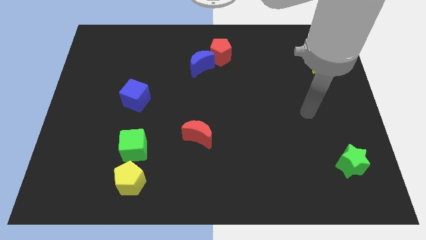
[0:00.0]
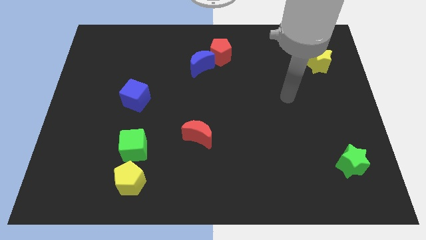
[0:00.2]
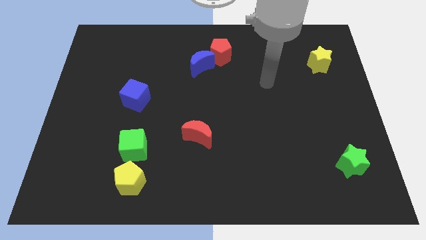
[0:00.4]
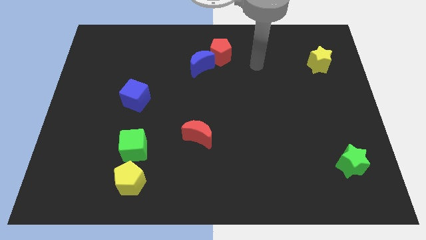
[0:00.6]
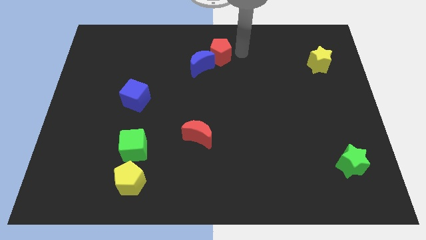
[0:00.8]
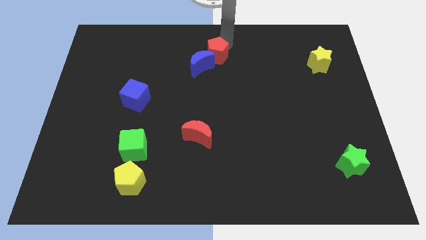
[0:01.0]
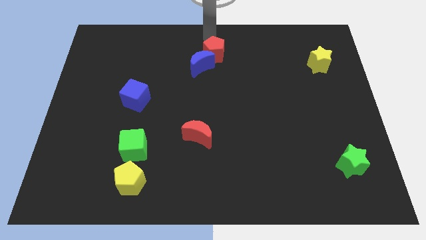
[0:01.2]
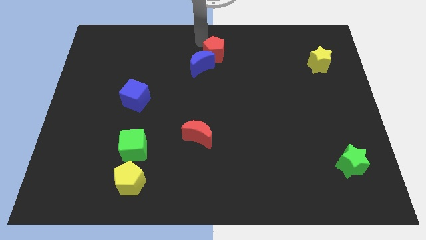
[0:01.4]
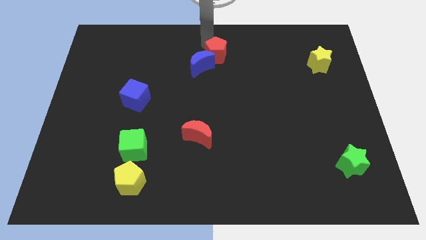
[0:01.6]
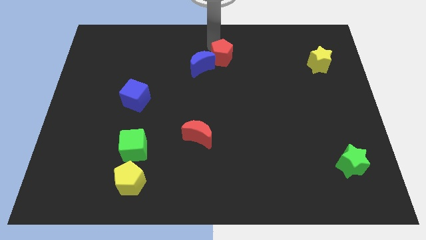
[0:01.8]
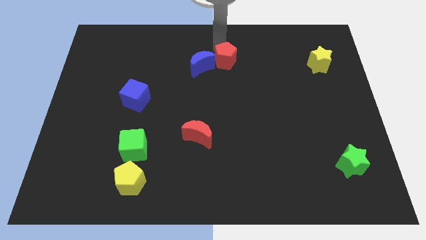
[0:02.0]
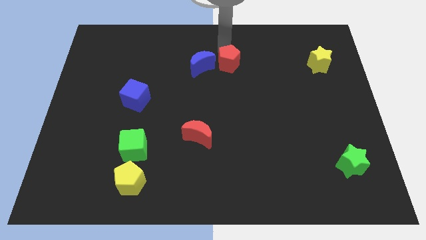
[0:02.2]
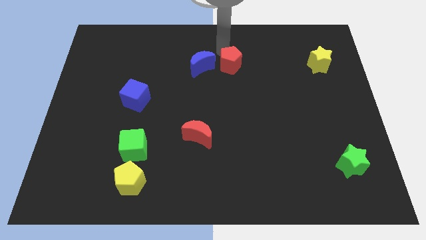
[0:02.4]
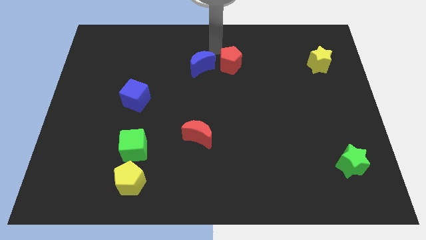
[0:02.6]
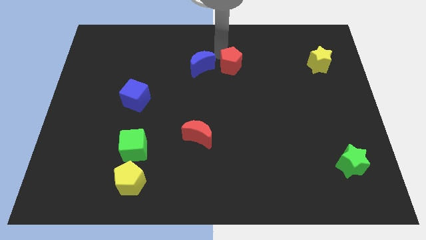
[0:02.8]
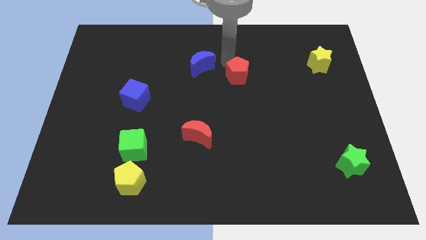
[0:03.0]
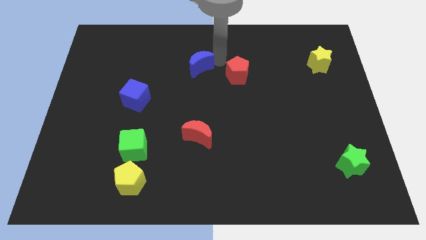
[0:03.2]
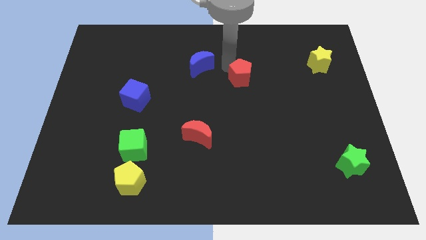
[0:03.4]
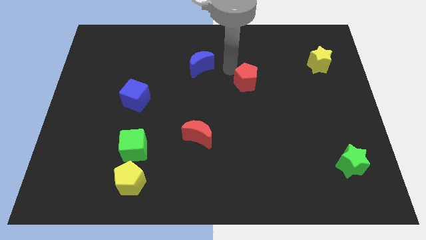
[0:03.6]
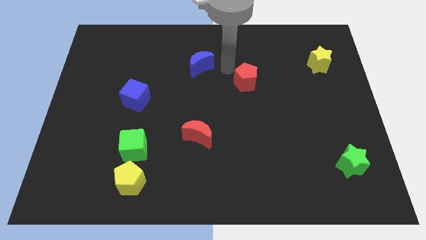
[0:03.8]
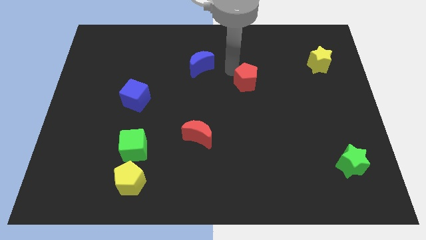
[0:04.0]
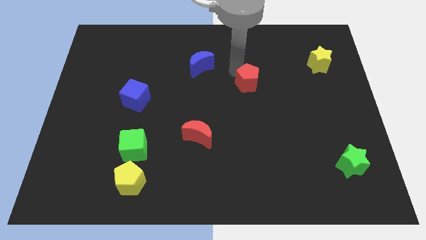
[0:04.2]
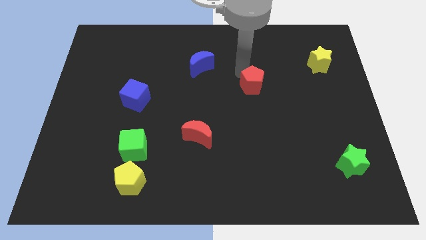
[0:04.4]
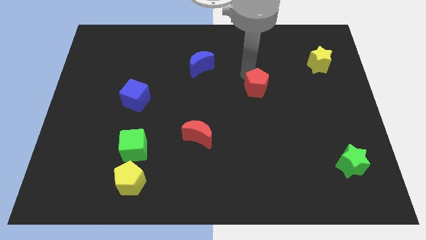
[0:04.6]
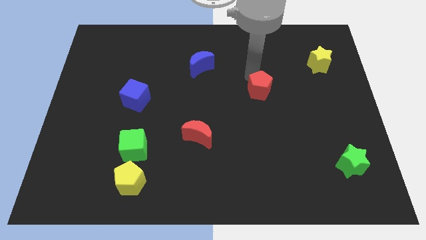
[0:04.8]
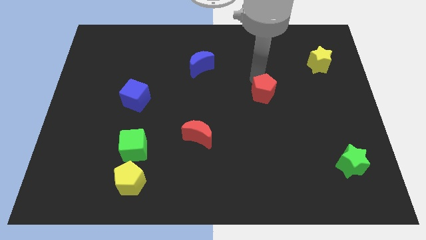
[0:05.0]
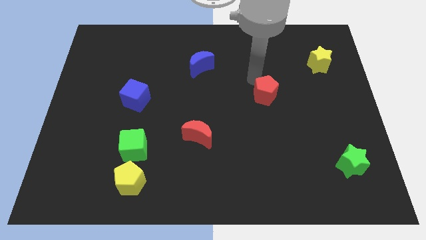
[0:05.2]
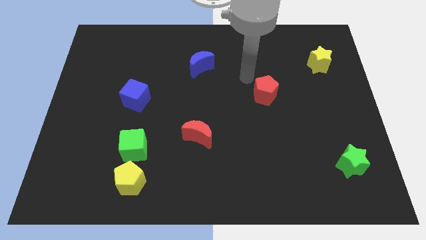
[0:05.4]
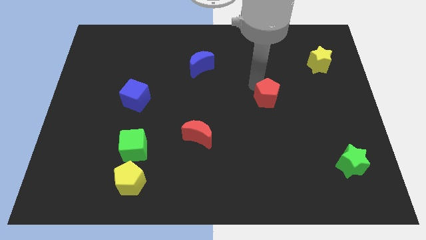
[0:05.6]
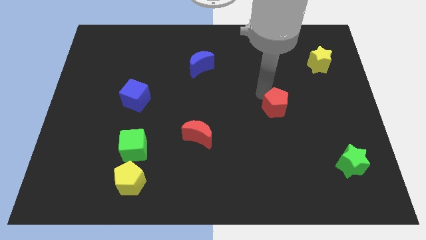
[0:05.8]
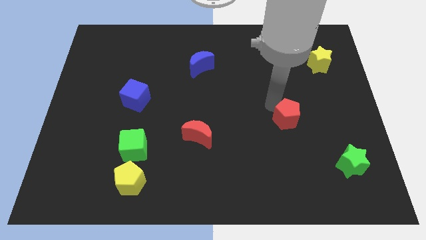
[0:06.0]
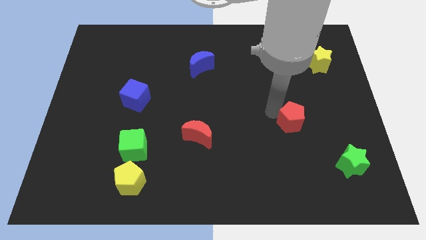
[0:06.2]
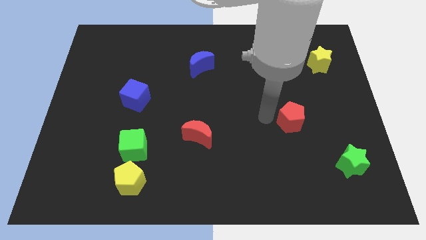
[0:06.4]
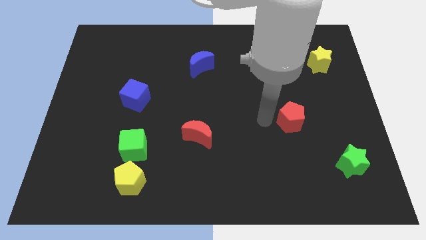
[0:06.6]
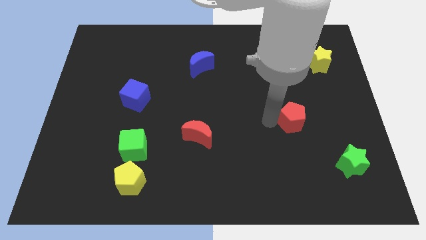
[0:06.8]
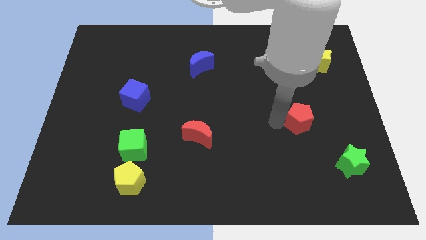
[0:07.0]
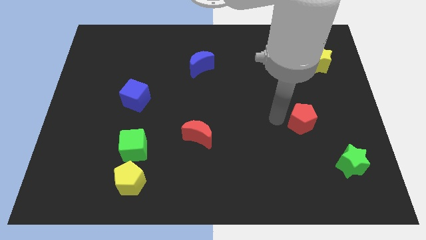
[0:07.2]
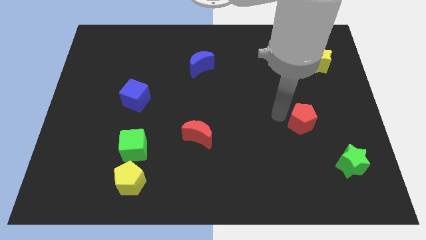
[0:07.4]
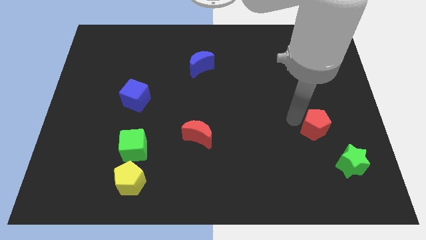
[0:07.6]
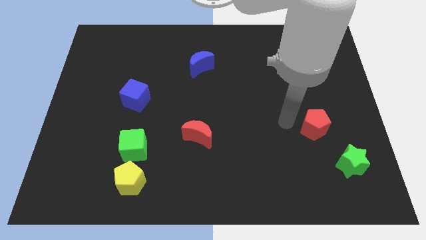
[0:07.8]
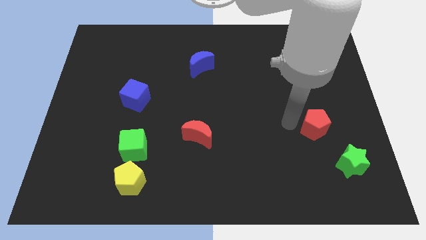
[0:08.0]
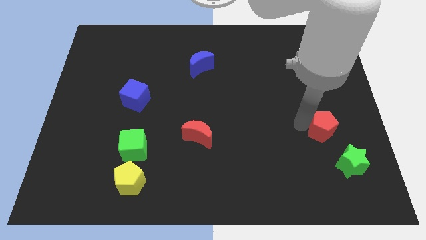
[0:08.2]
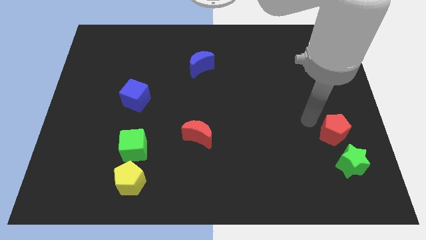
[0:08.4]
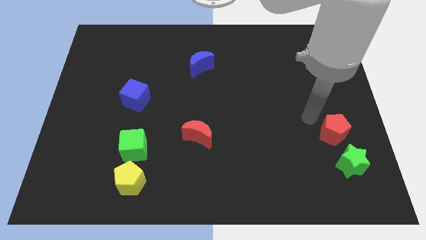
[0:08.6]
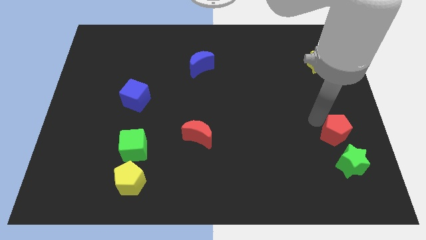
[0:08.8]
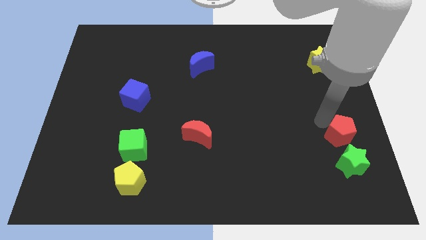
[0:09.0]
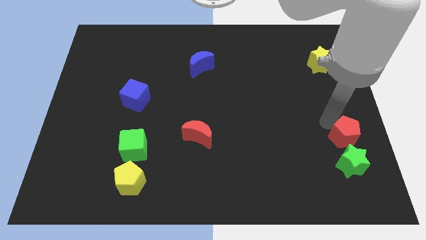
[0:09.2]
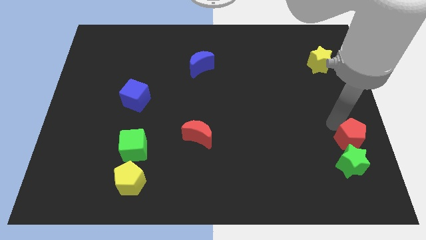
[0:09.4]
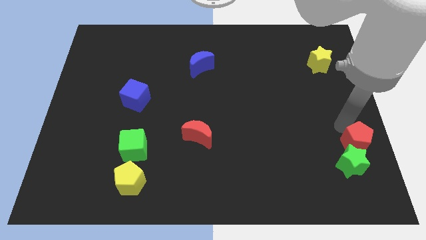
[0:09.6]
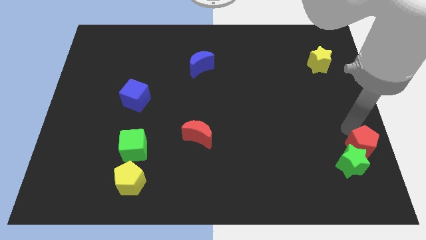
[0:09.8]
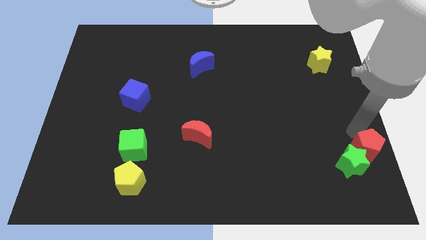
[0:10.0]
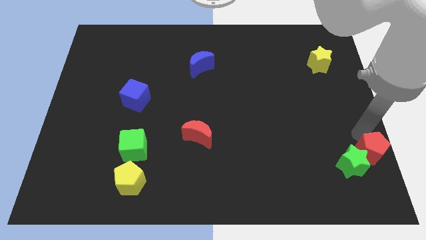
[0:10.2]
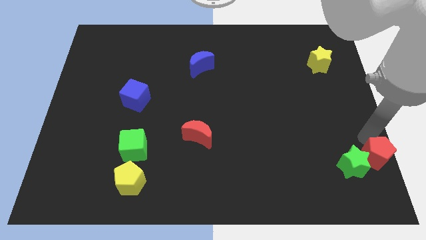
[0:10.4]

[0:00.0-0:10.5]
put the red pentagon to the bottom right of the board
